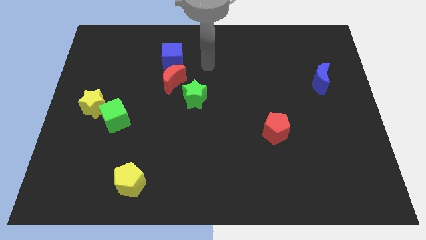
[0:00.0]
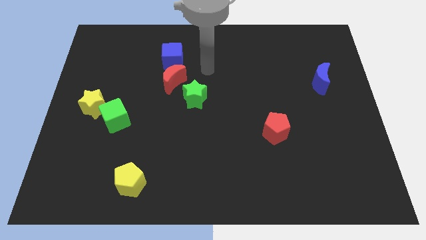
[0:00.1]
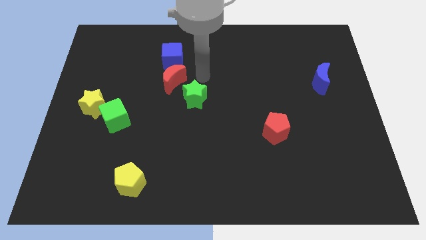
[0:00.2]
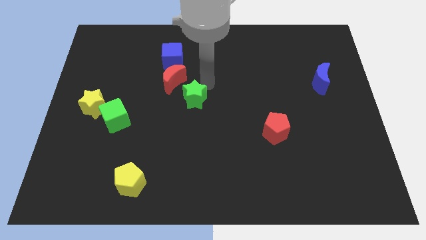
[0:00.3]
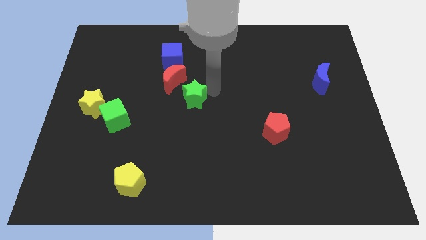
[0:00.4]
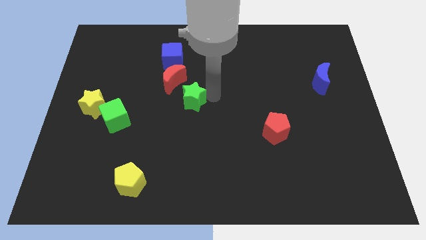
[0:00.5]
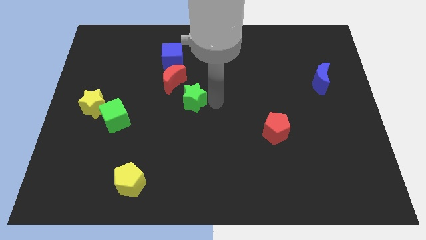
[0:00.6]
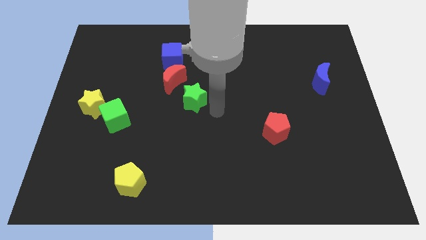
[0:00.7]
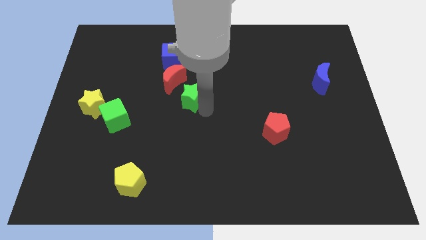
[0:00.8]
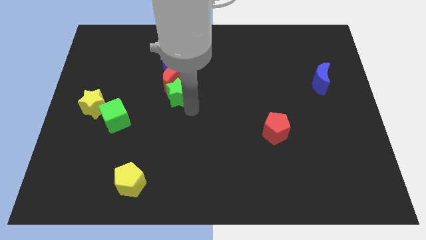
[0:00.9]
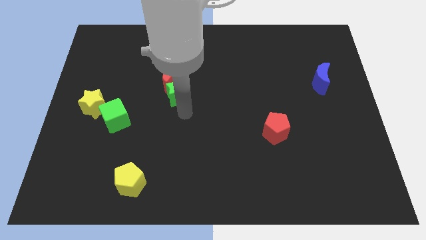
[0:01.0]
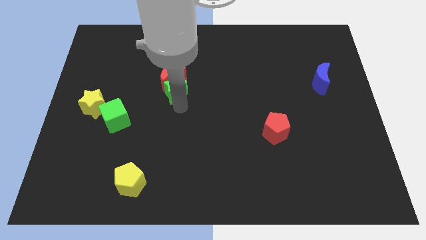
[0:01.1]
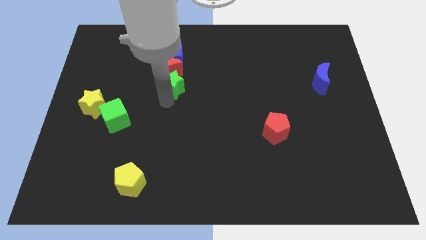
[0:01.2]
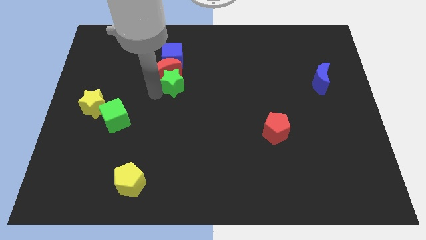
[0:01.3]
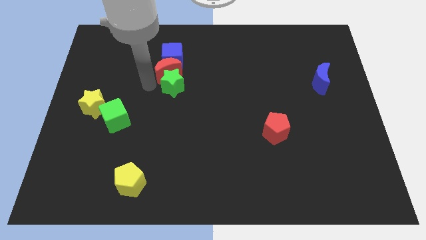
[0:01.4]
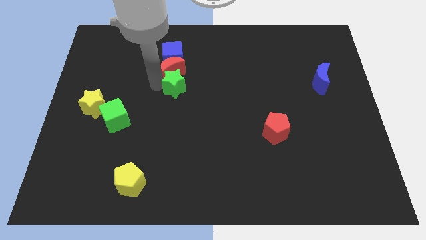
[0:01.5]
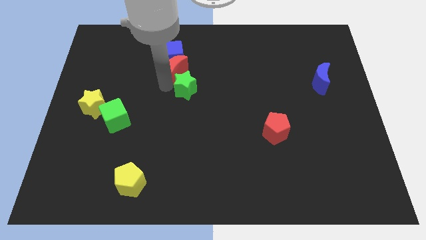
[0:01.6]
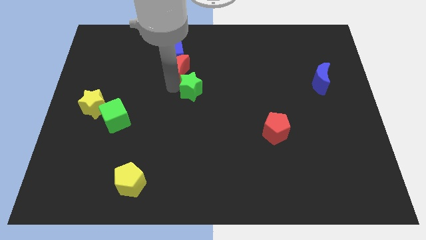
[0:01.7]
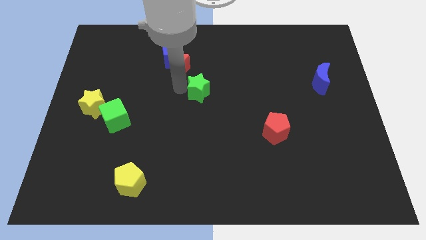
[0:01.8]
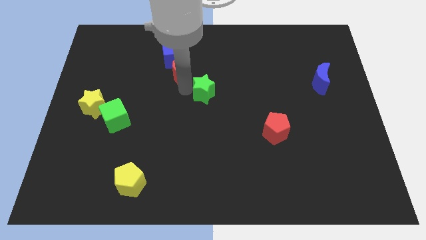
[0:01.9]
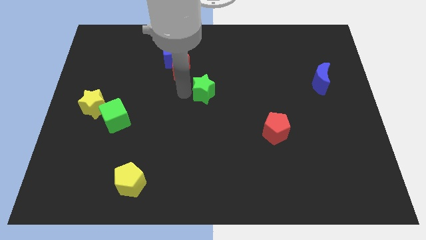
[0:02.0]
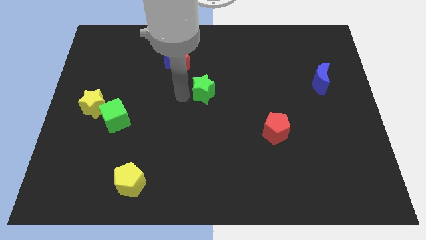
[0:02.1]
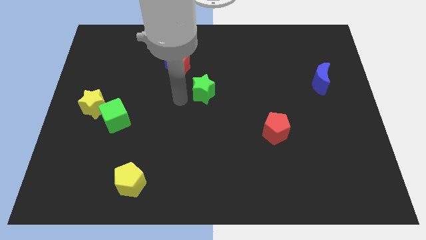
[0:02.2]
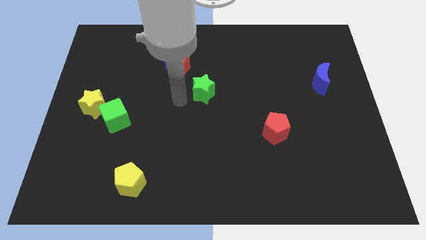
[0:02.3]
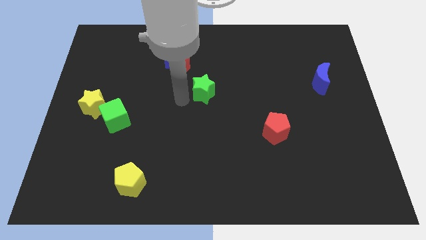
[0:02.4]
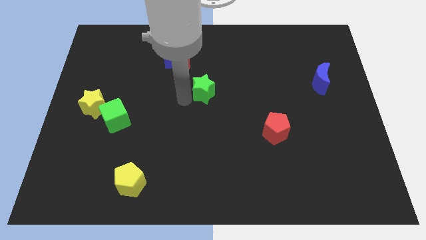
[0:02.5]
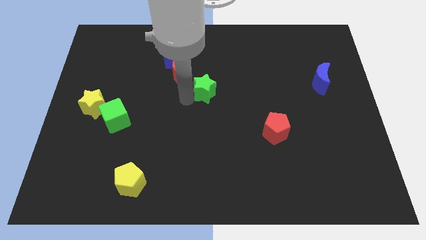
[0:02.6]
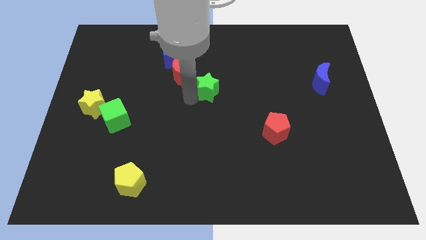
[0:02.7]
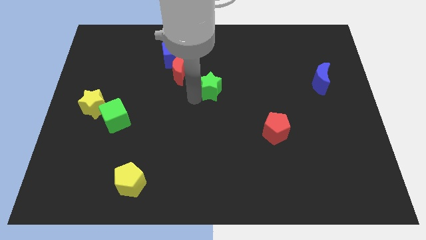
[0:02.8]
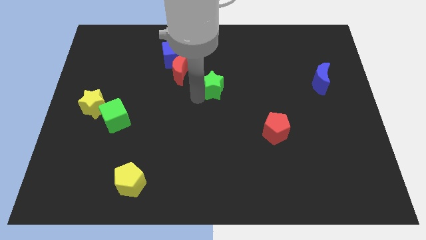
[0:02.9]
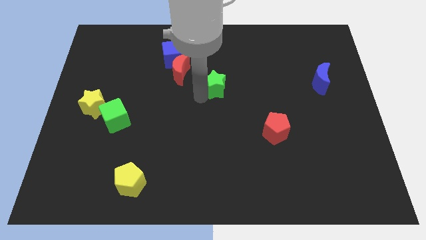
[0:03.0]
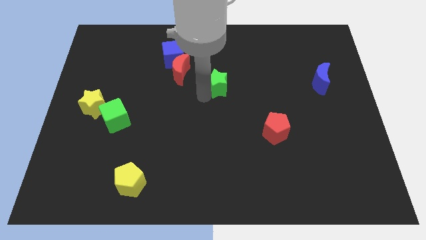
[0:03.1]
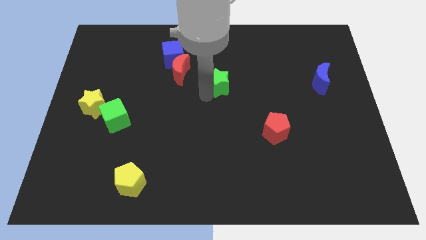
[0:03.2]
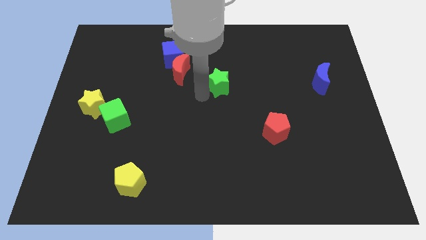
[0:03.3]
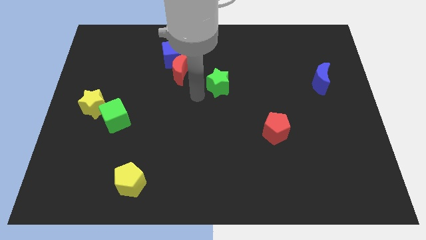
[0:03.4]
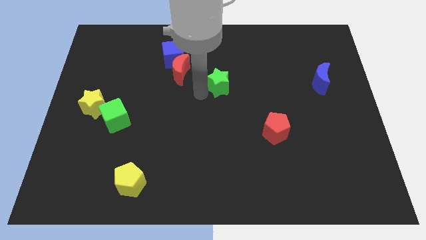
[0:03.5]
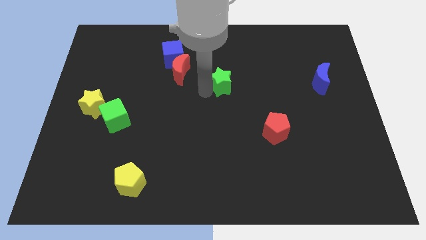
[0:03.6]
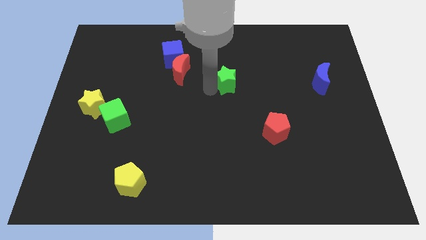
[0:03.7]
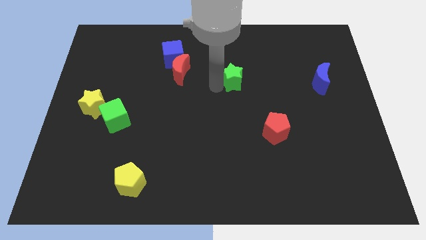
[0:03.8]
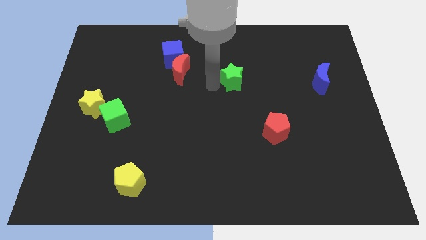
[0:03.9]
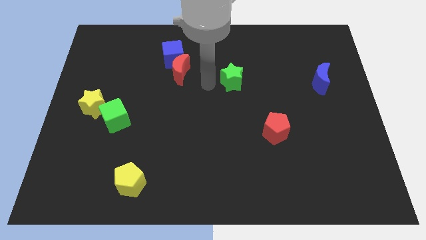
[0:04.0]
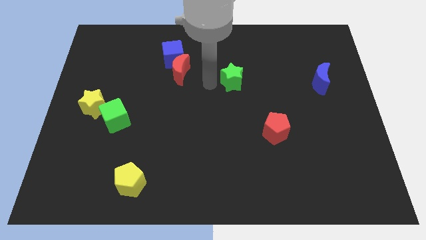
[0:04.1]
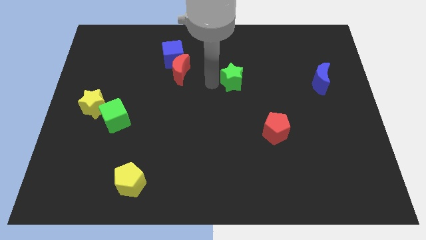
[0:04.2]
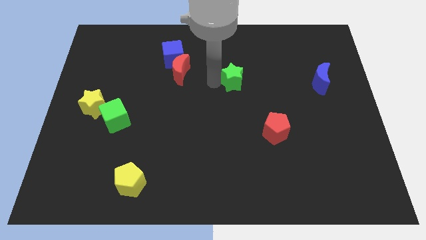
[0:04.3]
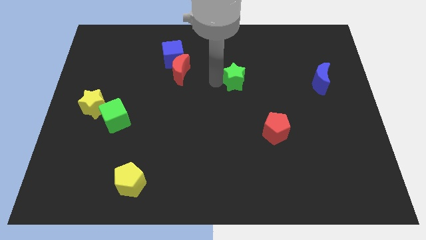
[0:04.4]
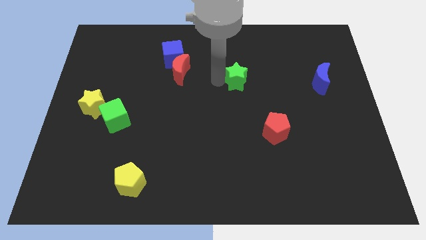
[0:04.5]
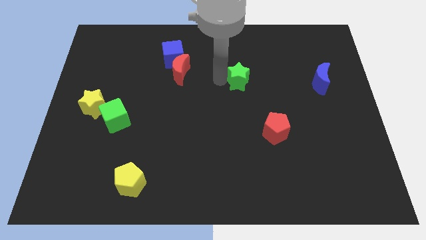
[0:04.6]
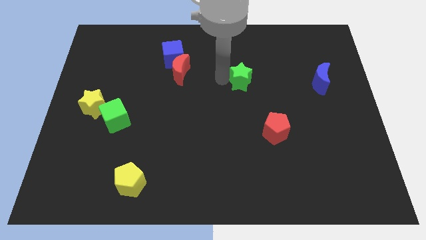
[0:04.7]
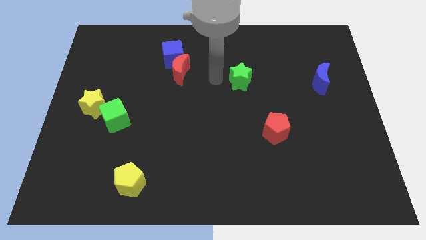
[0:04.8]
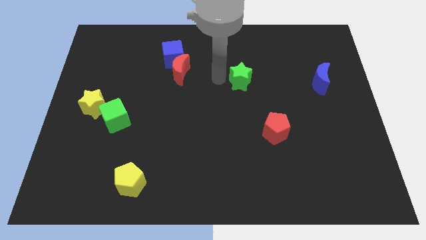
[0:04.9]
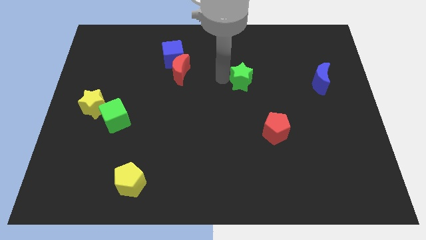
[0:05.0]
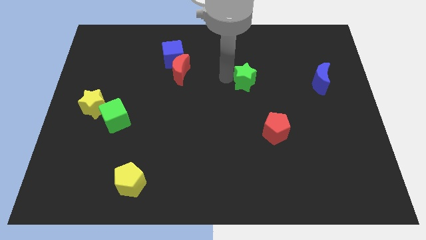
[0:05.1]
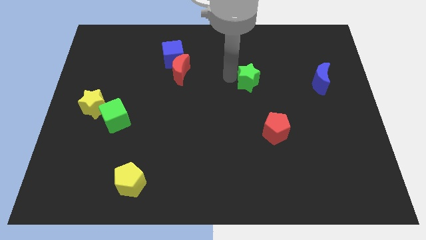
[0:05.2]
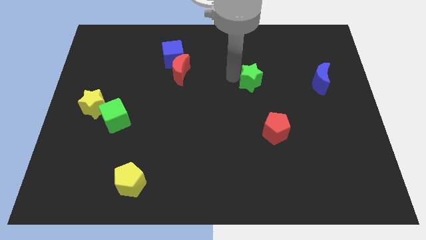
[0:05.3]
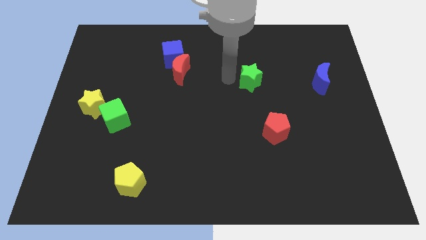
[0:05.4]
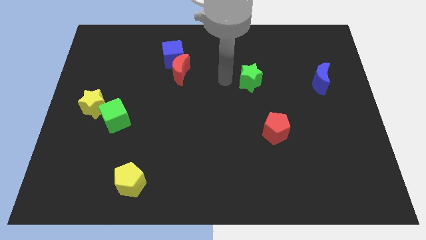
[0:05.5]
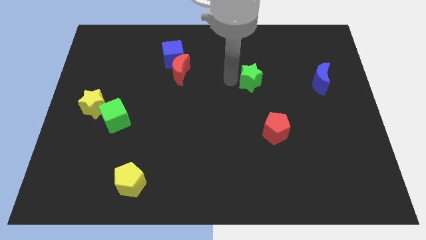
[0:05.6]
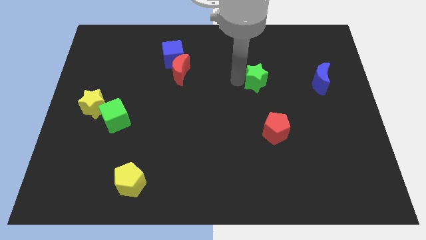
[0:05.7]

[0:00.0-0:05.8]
push the green star just left of the blue moon
